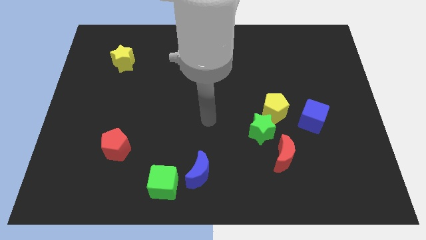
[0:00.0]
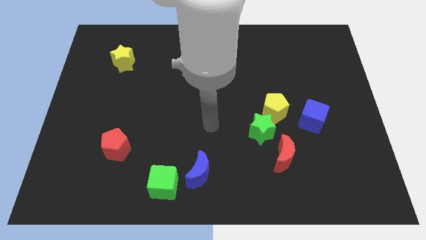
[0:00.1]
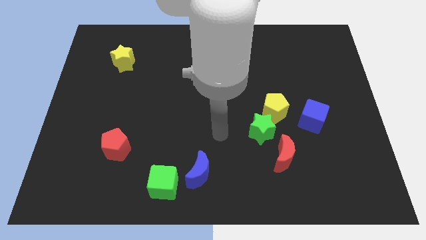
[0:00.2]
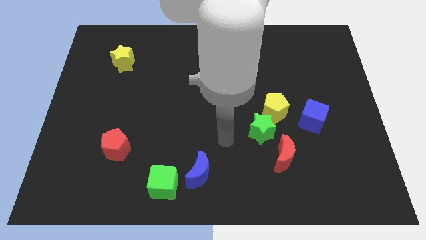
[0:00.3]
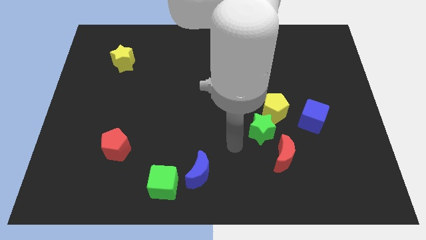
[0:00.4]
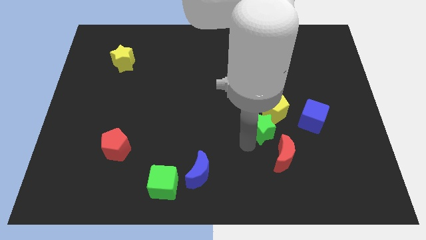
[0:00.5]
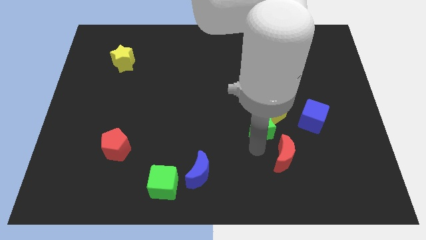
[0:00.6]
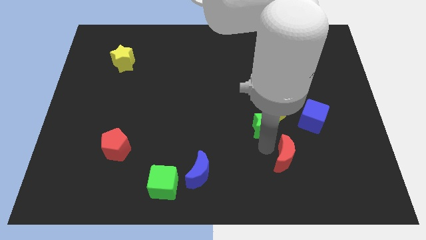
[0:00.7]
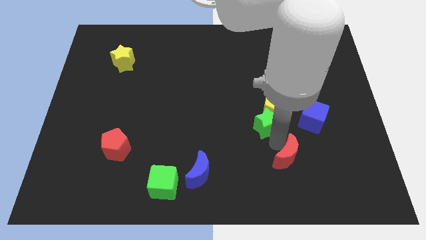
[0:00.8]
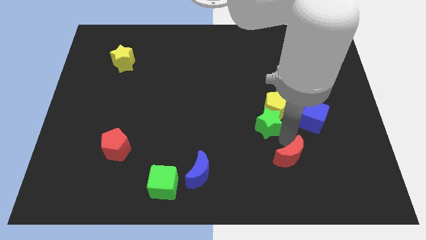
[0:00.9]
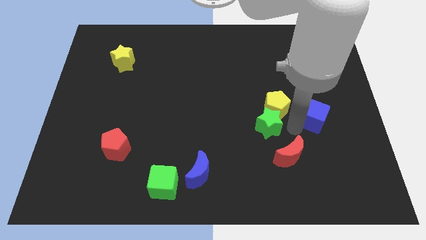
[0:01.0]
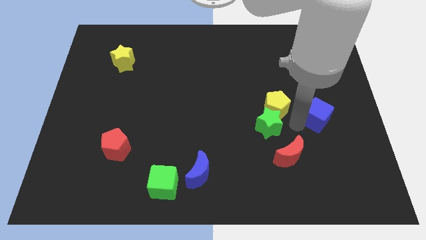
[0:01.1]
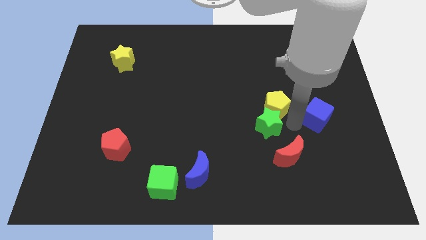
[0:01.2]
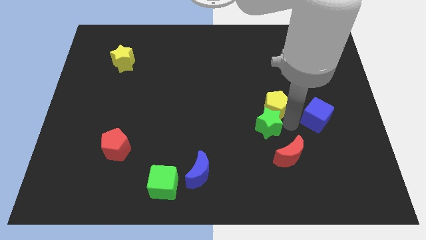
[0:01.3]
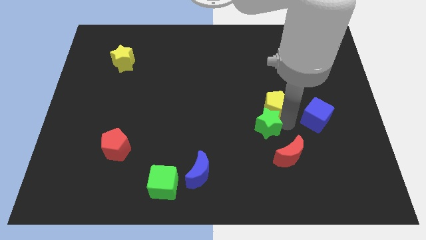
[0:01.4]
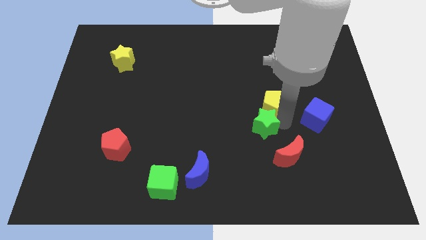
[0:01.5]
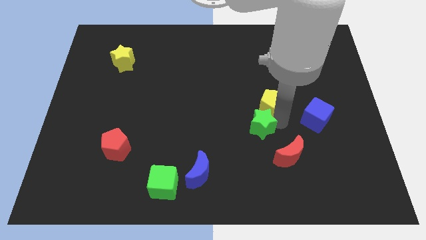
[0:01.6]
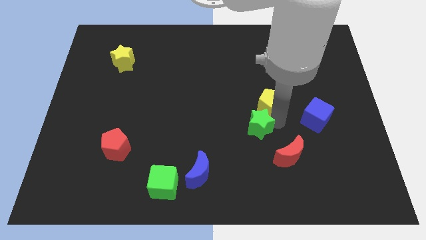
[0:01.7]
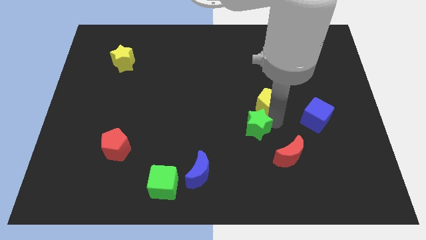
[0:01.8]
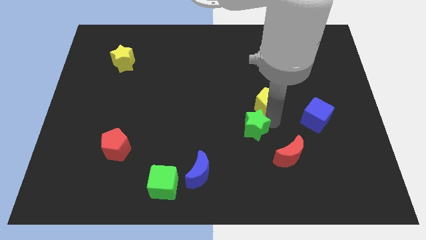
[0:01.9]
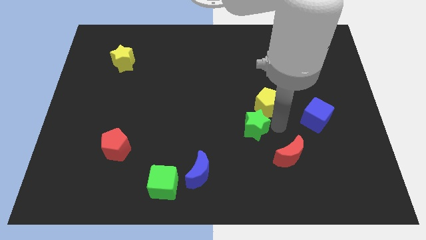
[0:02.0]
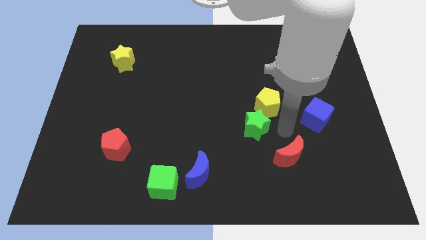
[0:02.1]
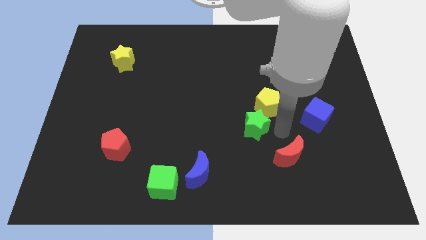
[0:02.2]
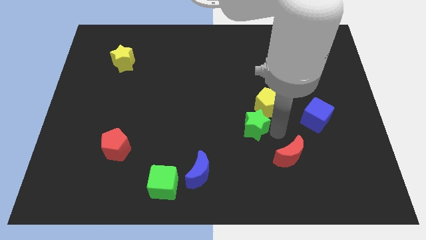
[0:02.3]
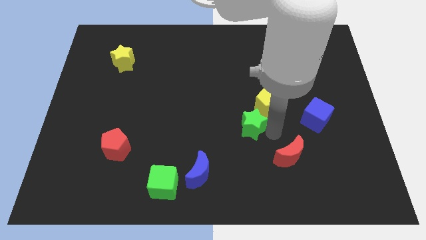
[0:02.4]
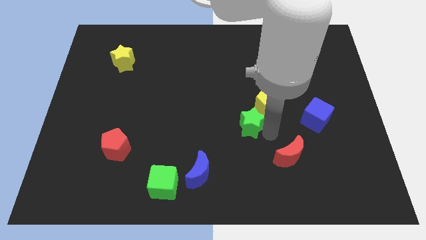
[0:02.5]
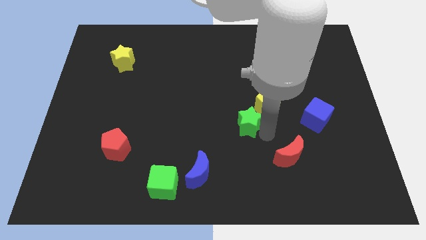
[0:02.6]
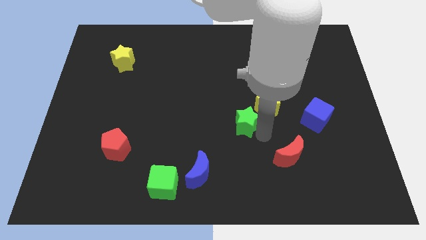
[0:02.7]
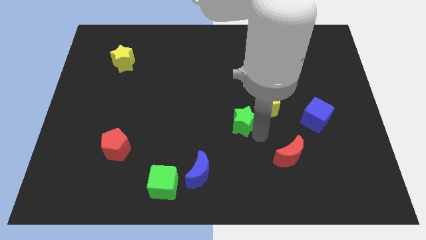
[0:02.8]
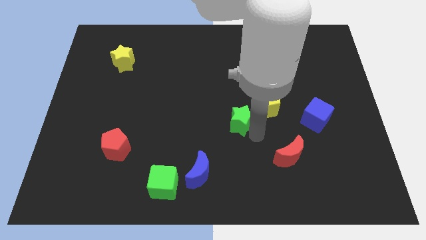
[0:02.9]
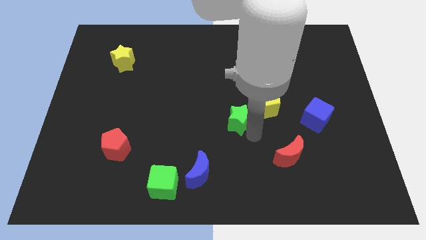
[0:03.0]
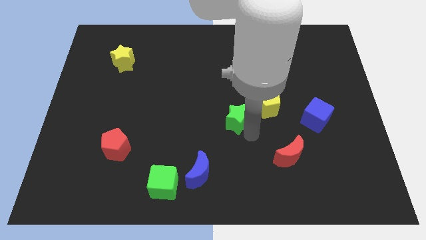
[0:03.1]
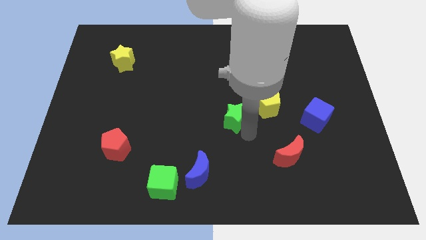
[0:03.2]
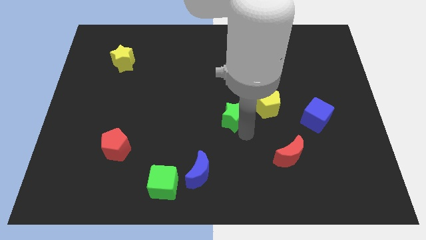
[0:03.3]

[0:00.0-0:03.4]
move the green star away from the yellow pentagon and red moon

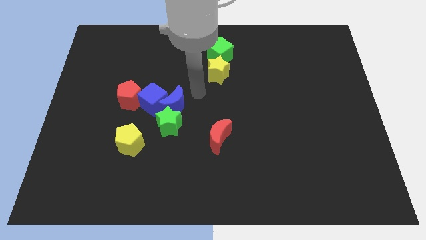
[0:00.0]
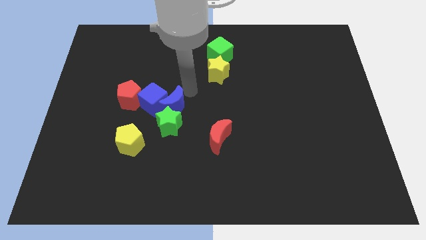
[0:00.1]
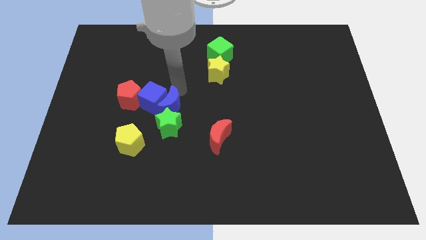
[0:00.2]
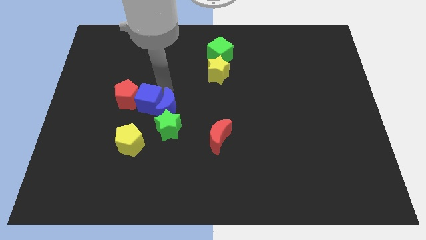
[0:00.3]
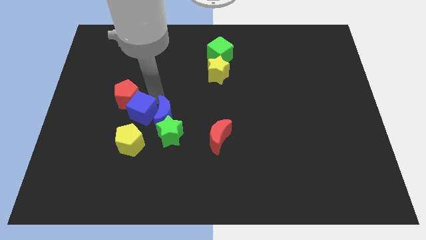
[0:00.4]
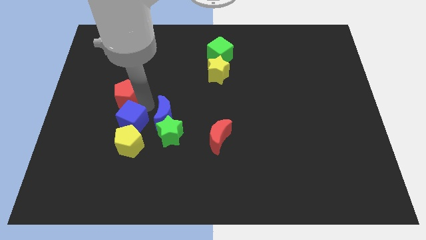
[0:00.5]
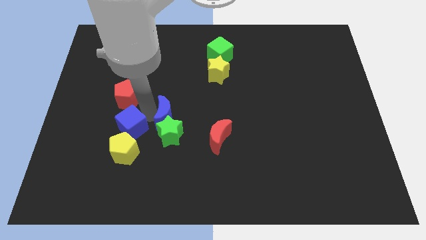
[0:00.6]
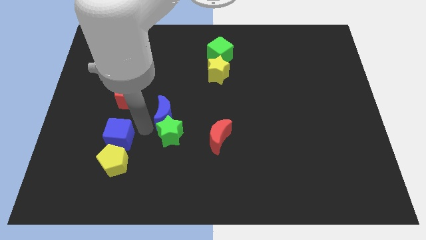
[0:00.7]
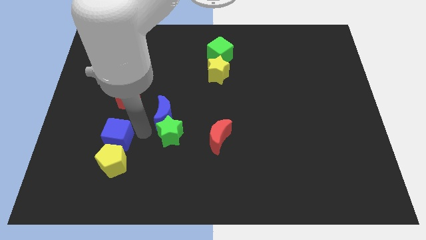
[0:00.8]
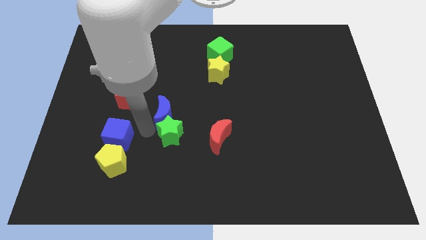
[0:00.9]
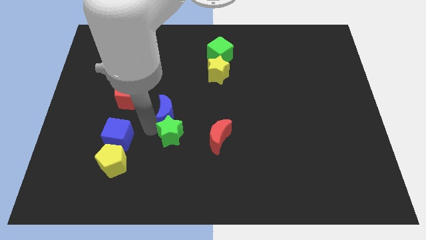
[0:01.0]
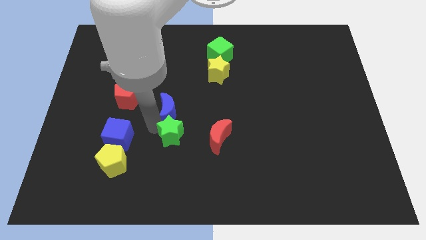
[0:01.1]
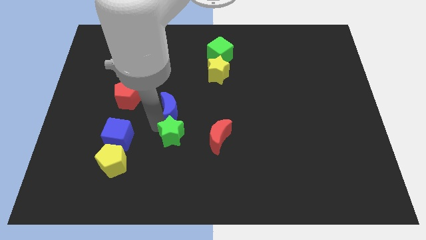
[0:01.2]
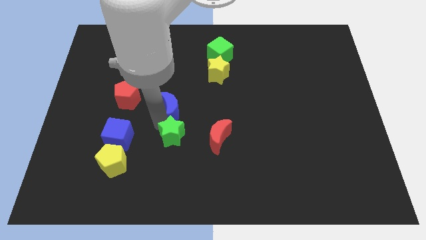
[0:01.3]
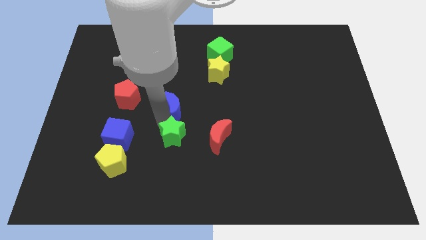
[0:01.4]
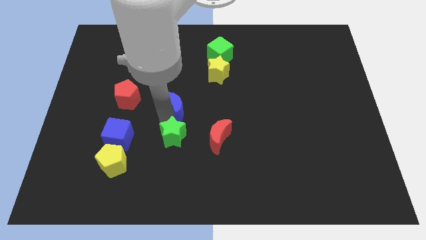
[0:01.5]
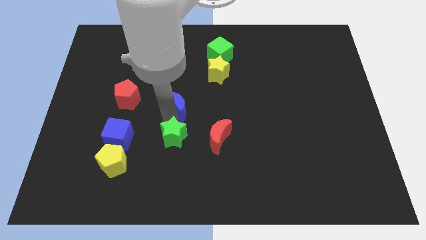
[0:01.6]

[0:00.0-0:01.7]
separate the blue moon from the blue cube and green star

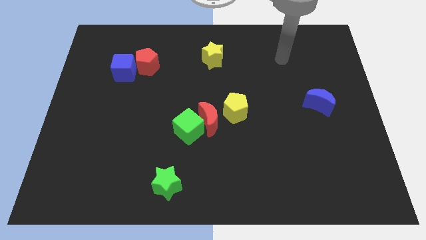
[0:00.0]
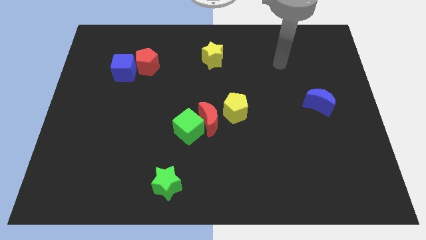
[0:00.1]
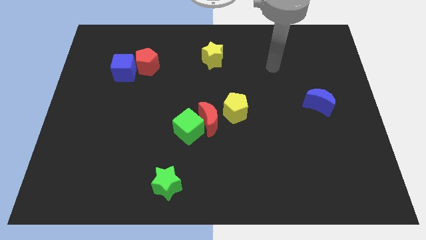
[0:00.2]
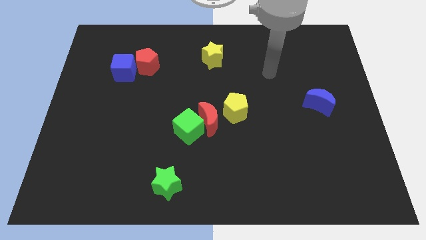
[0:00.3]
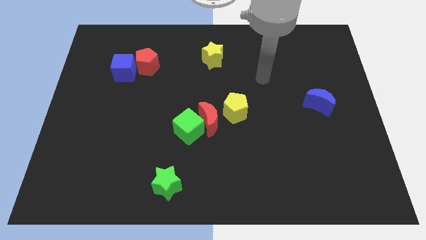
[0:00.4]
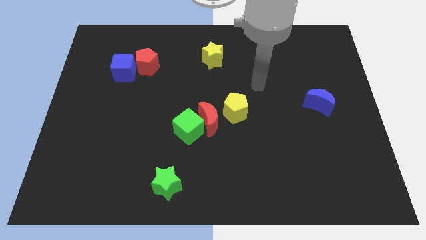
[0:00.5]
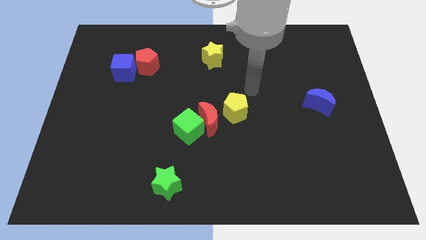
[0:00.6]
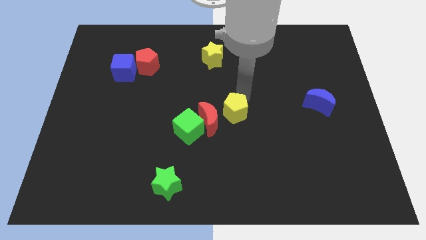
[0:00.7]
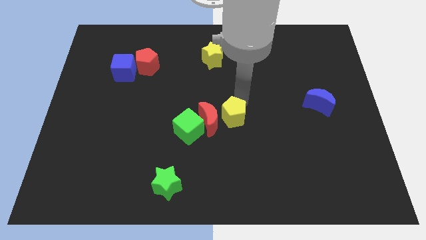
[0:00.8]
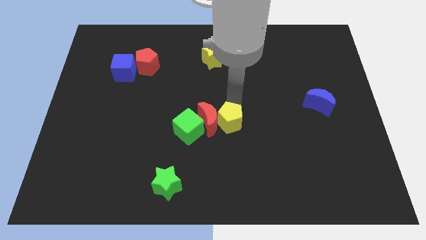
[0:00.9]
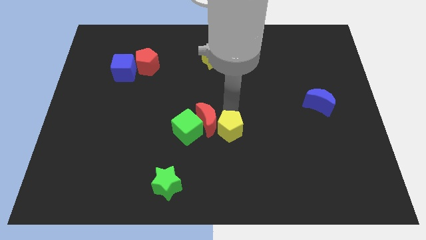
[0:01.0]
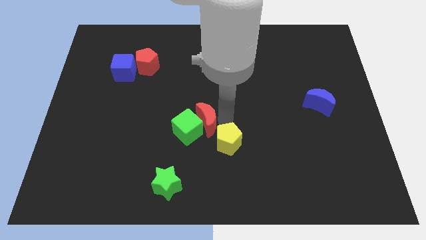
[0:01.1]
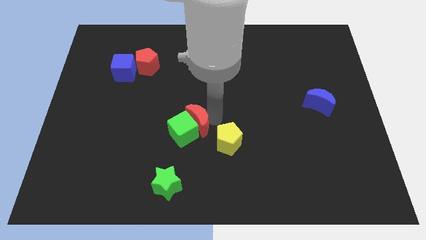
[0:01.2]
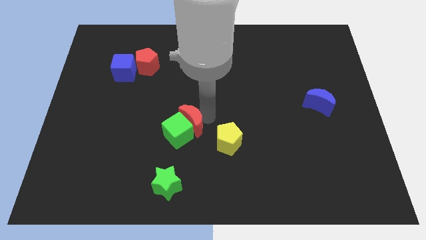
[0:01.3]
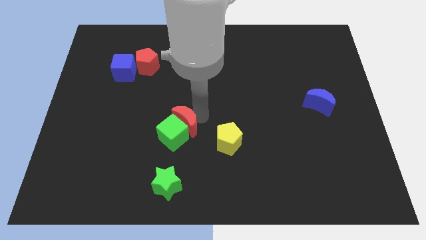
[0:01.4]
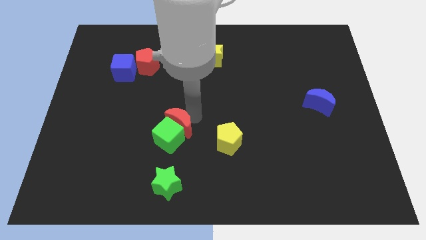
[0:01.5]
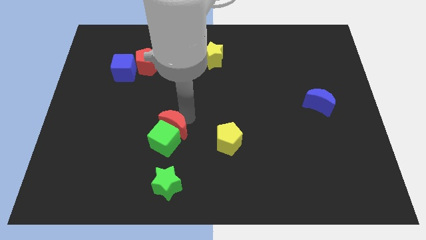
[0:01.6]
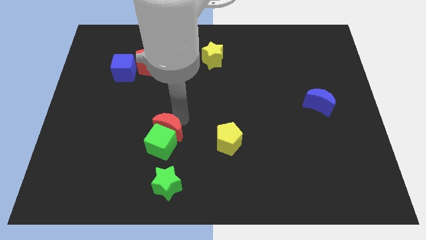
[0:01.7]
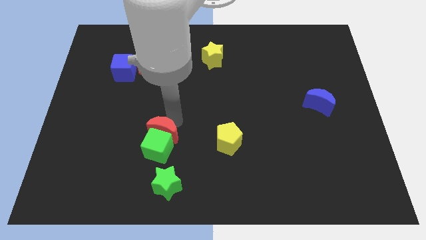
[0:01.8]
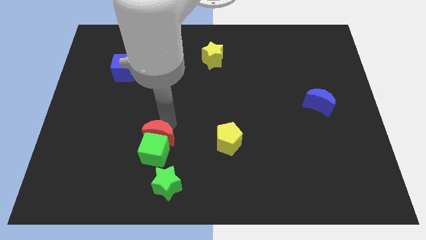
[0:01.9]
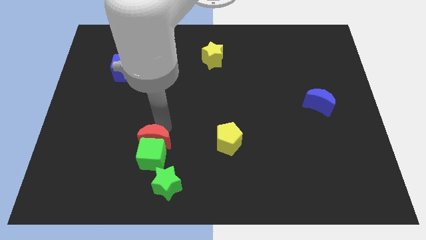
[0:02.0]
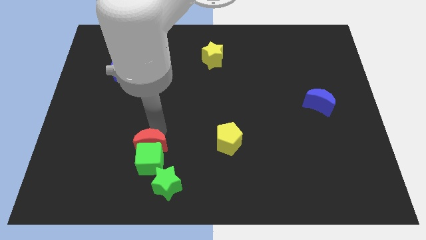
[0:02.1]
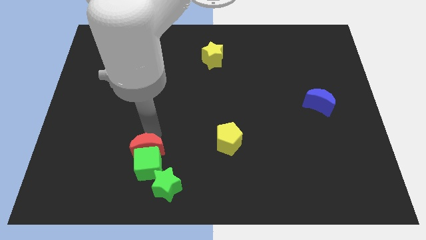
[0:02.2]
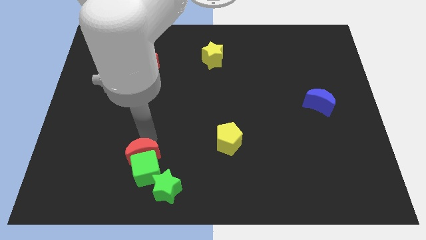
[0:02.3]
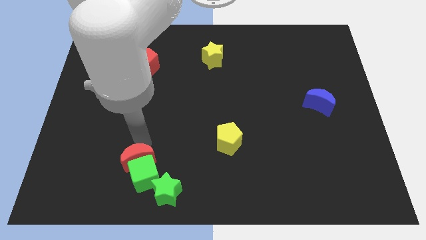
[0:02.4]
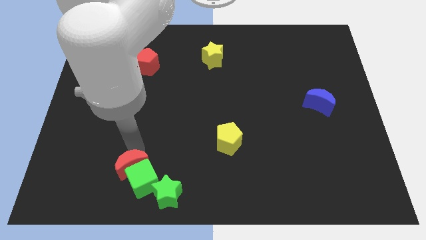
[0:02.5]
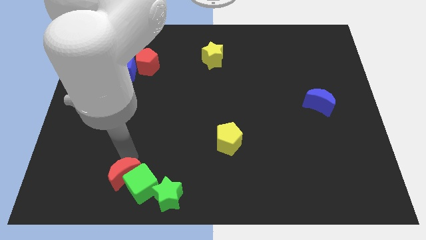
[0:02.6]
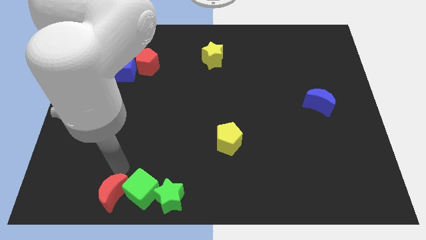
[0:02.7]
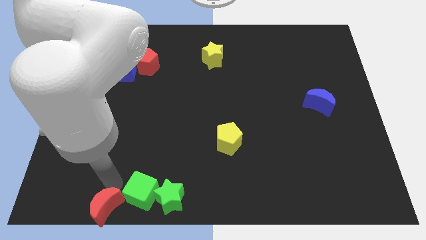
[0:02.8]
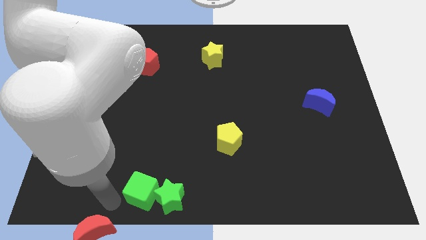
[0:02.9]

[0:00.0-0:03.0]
move the green cube away from the red moon

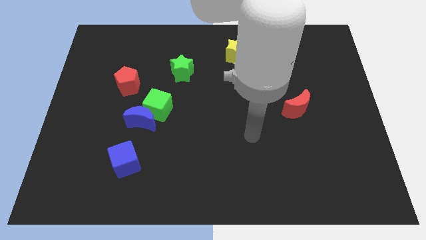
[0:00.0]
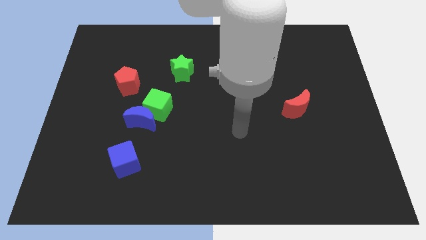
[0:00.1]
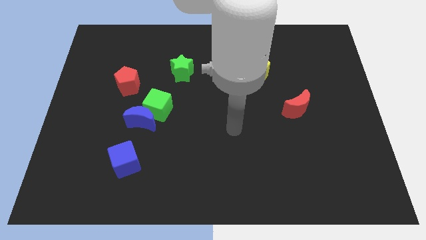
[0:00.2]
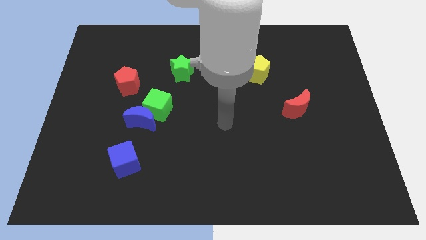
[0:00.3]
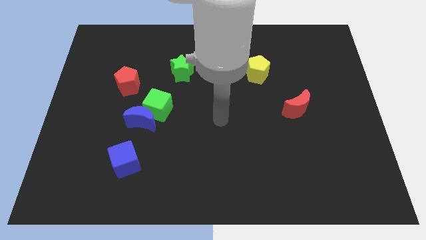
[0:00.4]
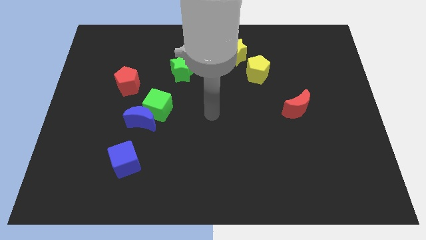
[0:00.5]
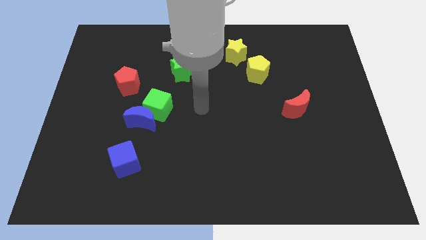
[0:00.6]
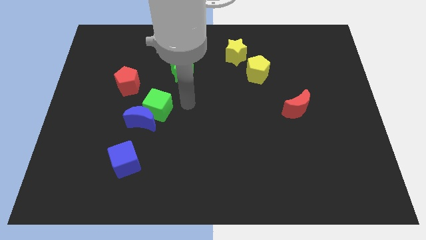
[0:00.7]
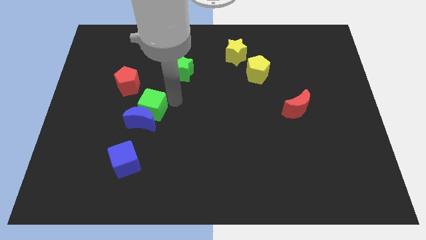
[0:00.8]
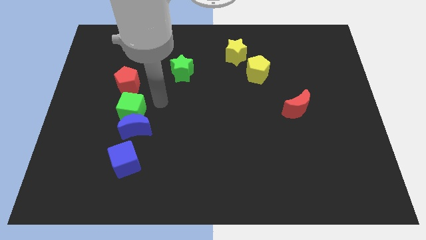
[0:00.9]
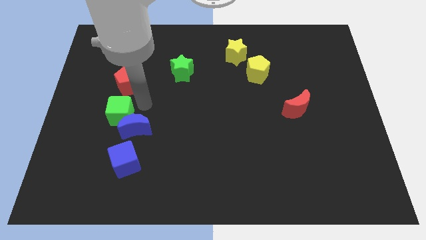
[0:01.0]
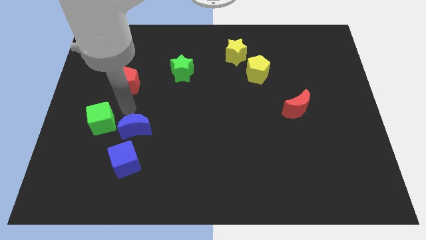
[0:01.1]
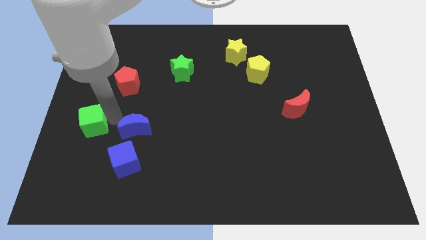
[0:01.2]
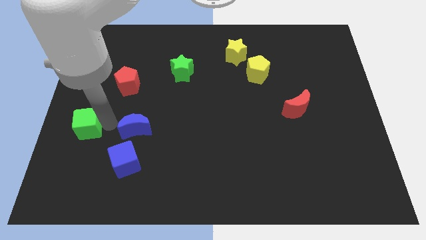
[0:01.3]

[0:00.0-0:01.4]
pull the blue moon apart from the green cube
